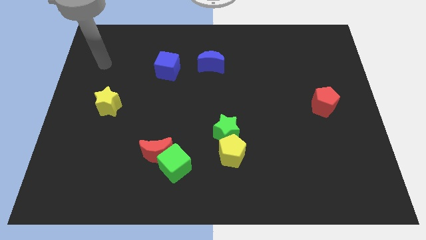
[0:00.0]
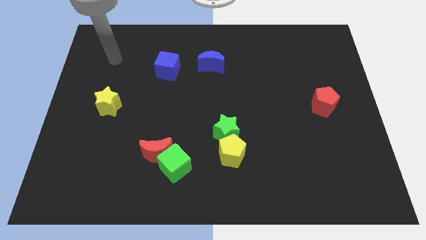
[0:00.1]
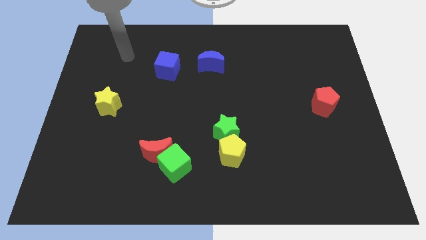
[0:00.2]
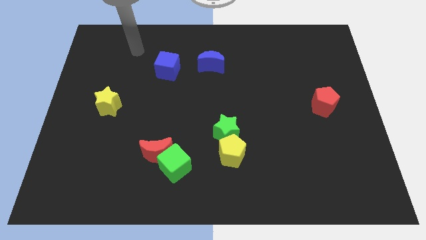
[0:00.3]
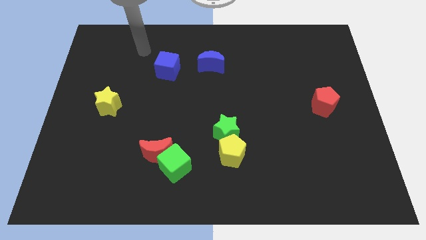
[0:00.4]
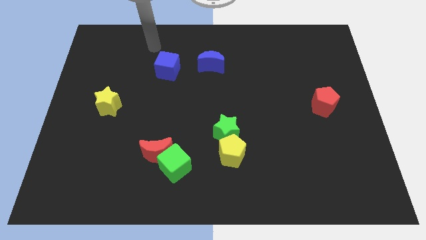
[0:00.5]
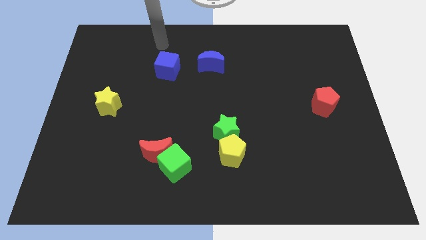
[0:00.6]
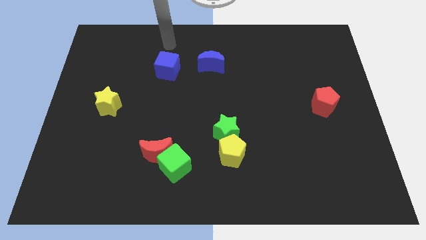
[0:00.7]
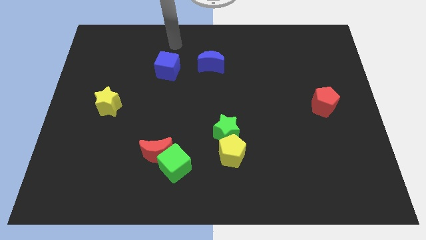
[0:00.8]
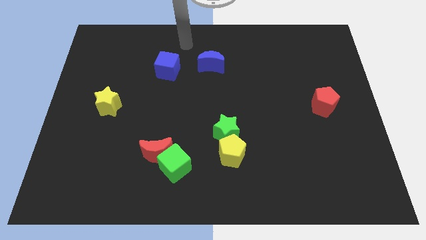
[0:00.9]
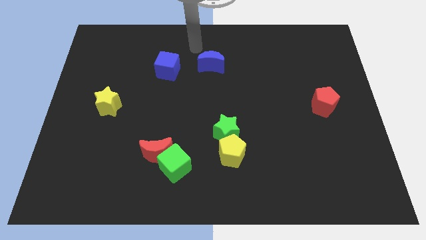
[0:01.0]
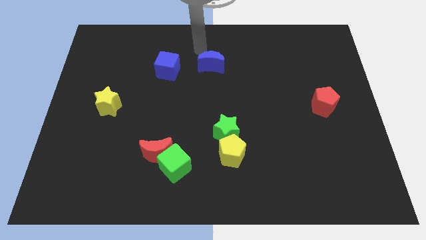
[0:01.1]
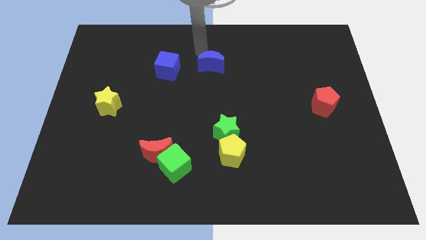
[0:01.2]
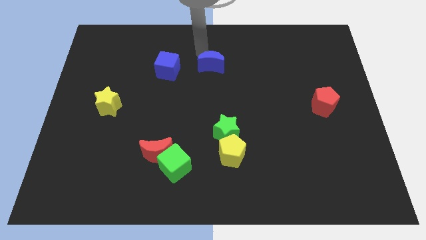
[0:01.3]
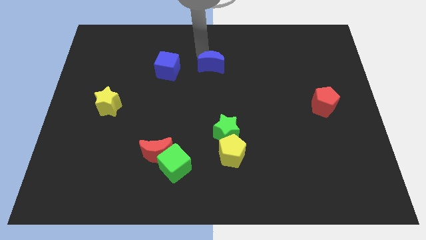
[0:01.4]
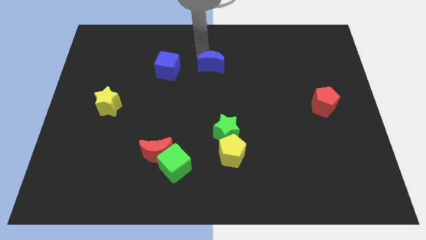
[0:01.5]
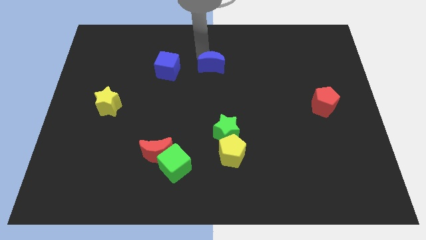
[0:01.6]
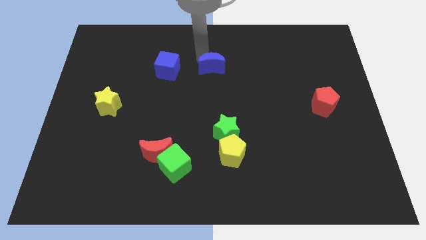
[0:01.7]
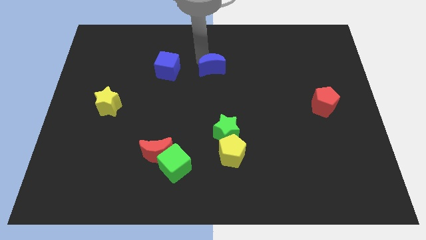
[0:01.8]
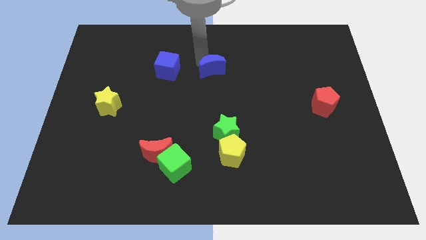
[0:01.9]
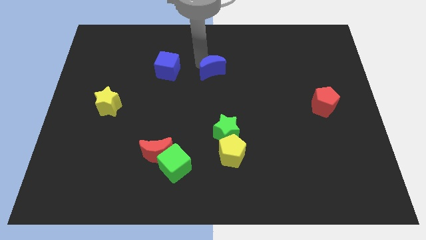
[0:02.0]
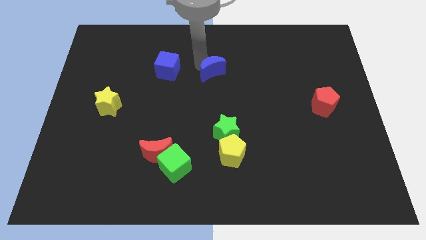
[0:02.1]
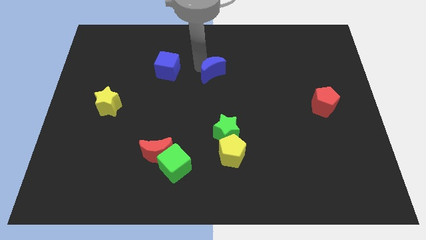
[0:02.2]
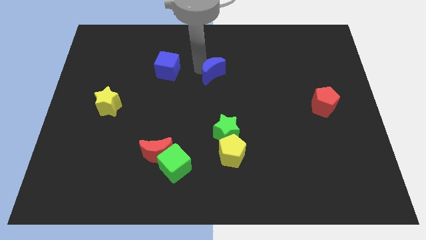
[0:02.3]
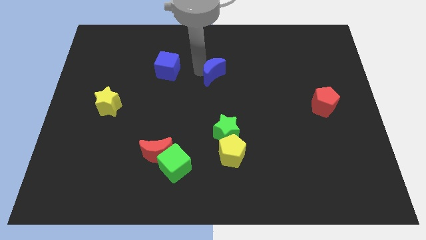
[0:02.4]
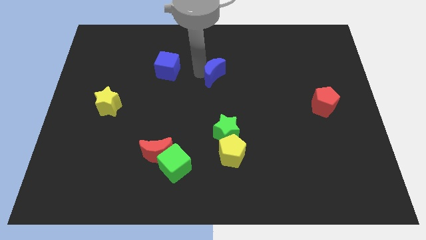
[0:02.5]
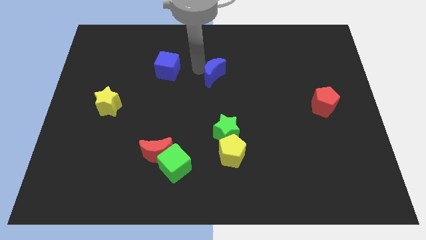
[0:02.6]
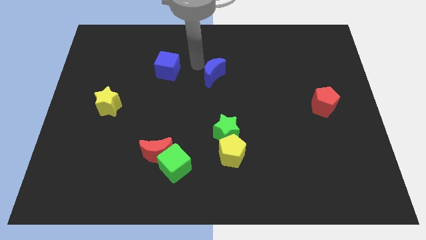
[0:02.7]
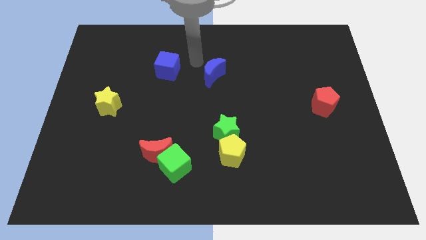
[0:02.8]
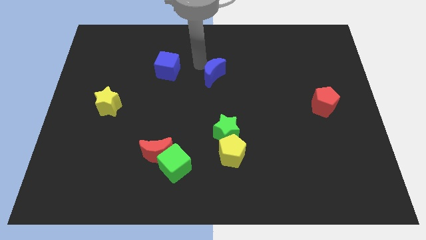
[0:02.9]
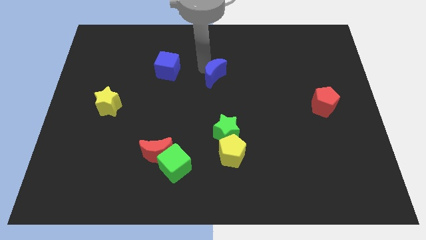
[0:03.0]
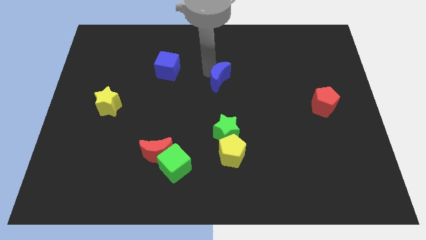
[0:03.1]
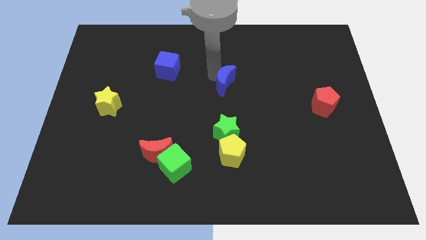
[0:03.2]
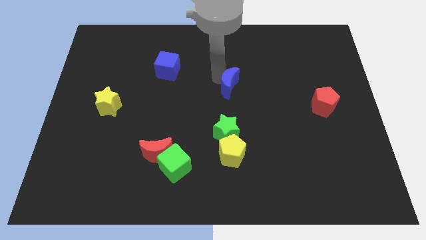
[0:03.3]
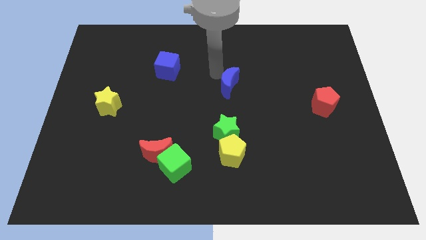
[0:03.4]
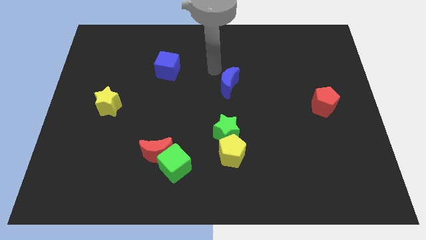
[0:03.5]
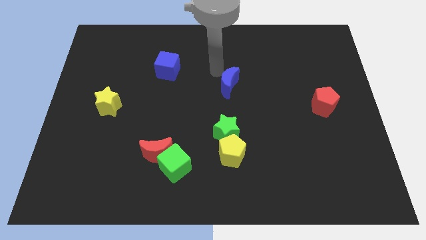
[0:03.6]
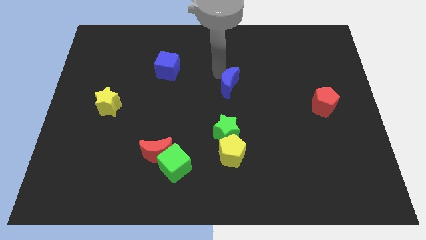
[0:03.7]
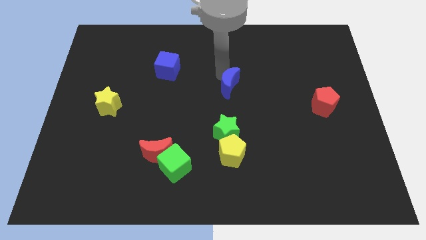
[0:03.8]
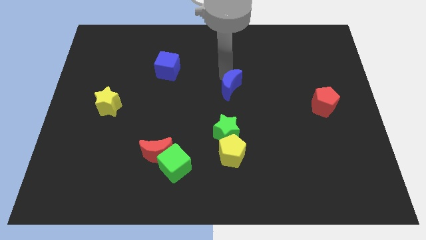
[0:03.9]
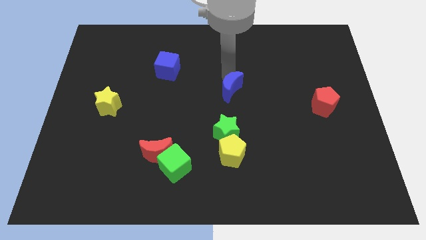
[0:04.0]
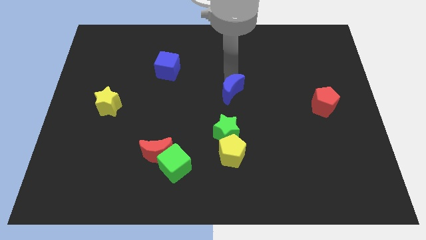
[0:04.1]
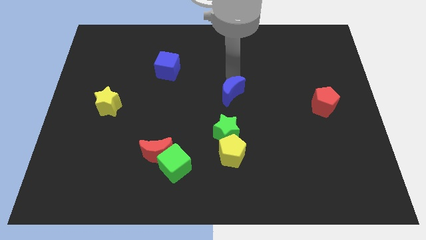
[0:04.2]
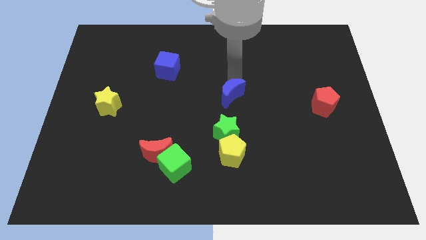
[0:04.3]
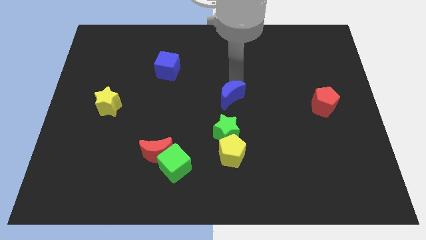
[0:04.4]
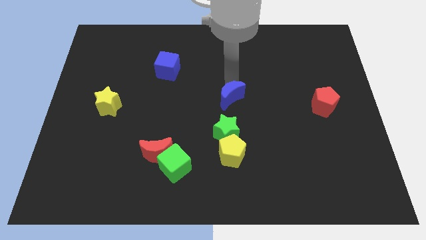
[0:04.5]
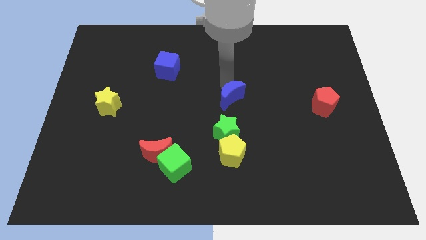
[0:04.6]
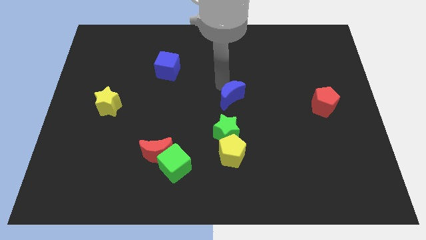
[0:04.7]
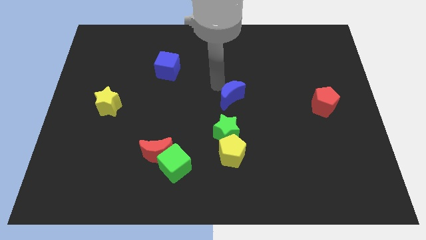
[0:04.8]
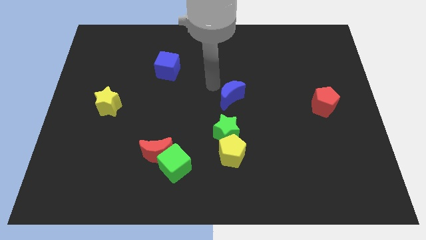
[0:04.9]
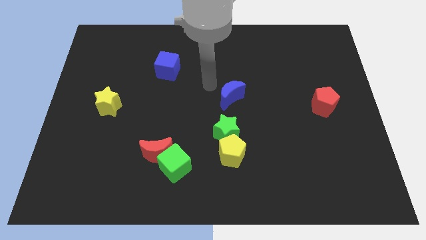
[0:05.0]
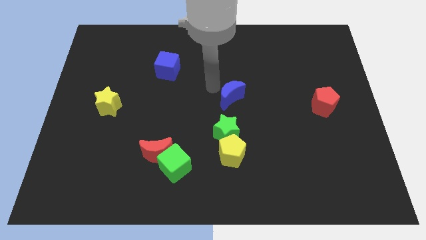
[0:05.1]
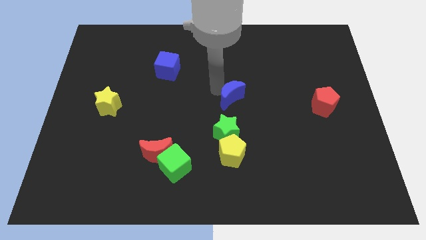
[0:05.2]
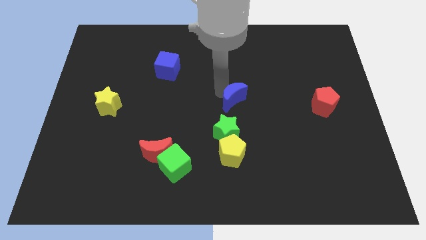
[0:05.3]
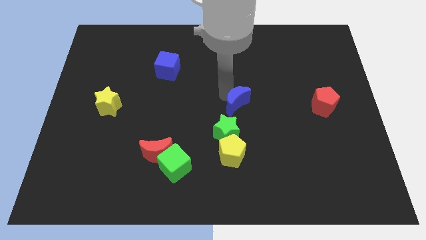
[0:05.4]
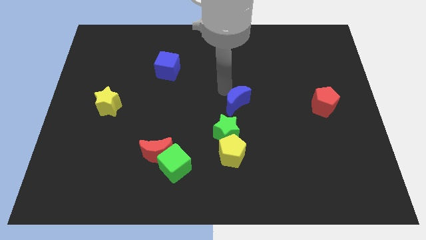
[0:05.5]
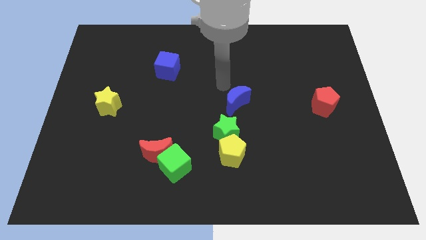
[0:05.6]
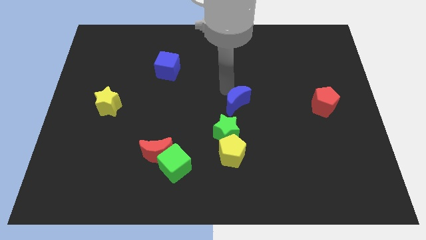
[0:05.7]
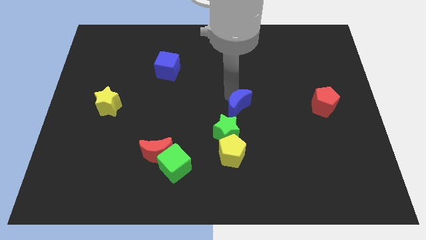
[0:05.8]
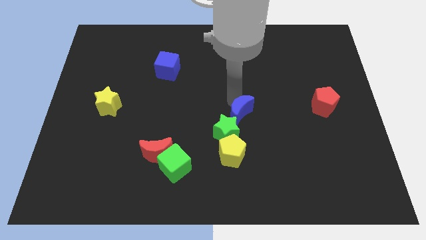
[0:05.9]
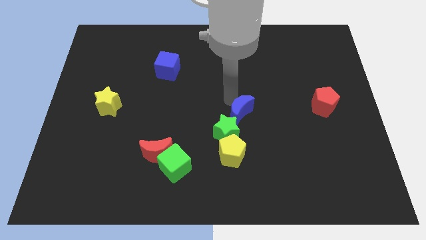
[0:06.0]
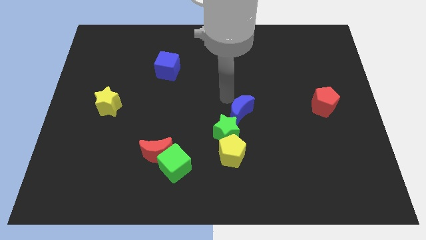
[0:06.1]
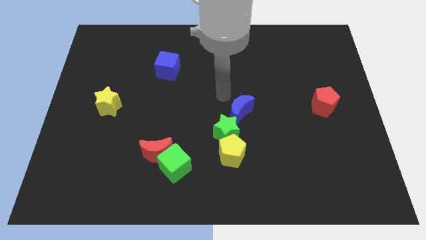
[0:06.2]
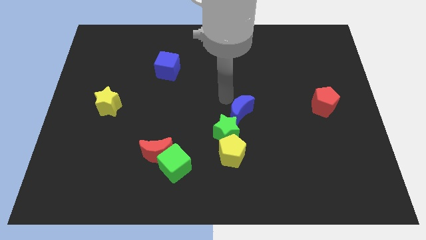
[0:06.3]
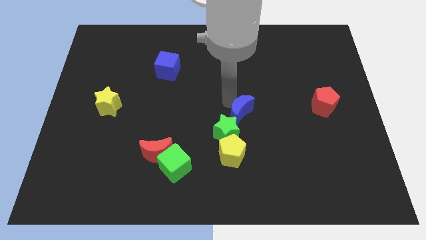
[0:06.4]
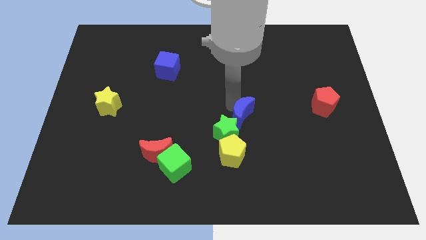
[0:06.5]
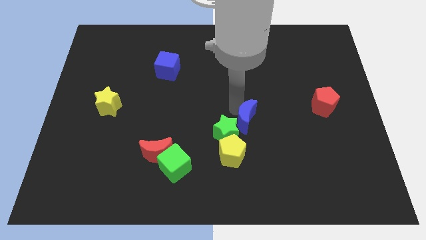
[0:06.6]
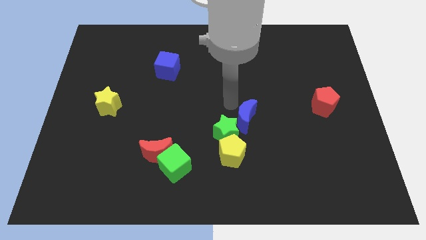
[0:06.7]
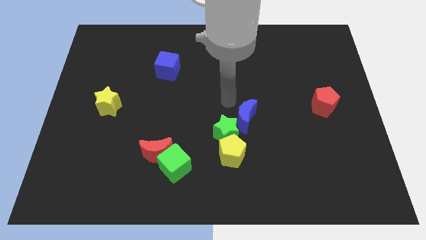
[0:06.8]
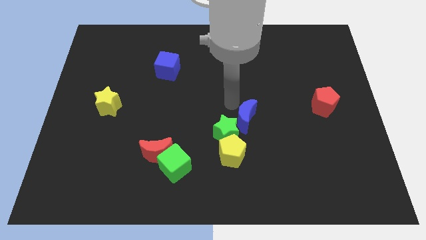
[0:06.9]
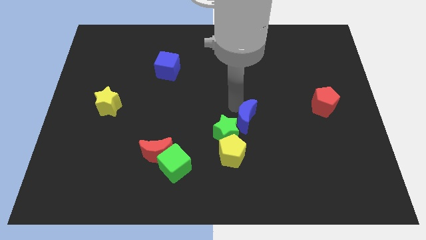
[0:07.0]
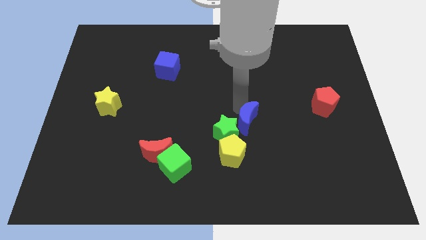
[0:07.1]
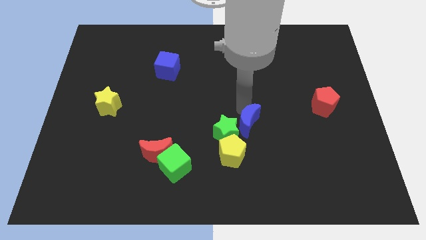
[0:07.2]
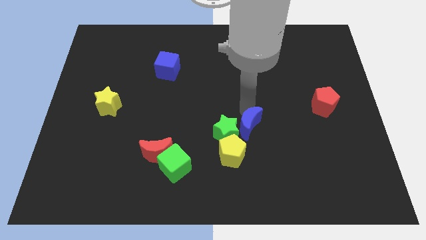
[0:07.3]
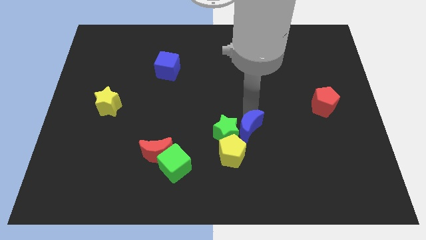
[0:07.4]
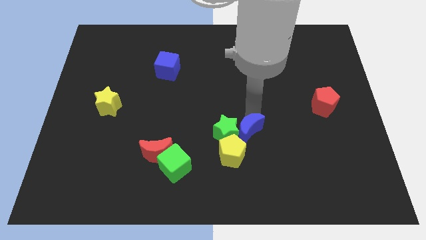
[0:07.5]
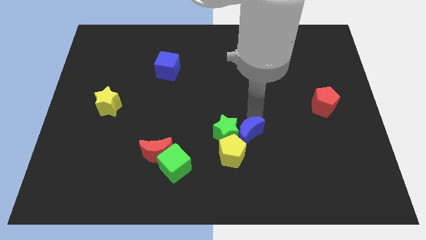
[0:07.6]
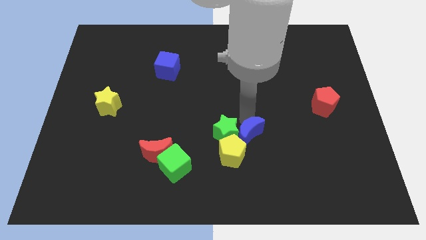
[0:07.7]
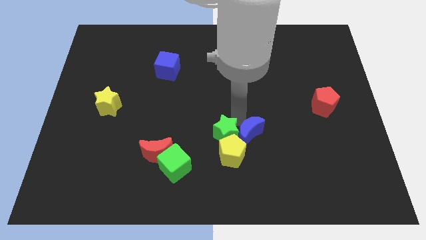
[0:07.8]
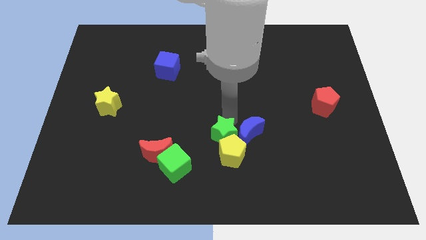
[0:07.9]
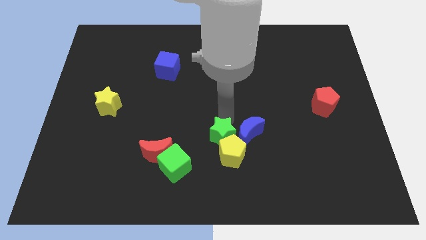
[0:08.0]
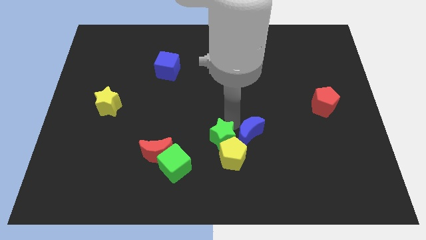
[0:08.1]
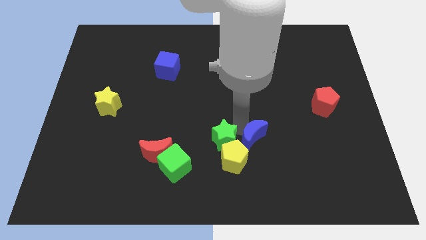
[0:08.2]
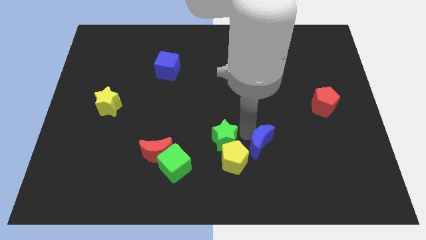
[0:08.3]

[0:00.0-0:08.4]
put the blue moon right of the yellow pentagon
